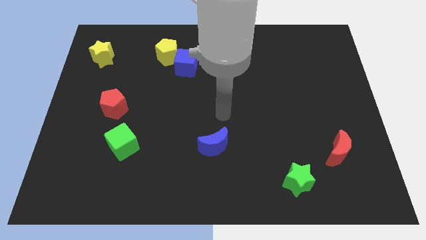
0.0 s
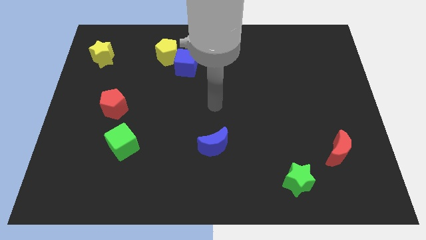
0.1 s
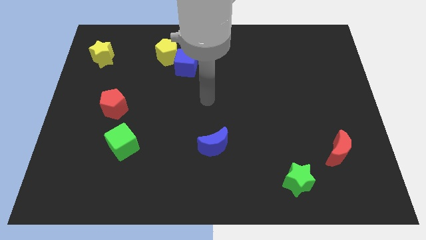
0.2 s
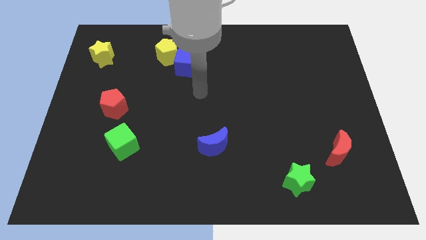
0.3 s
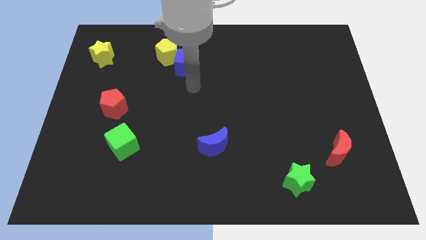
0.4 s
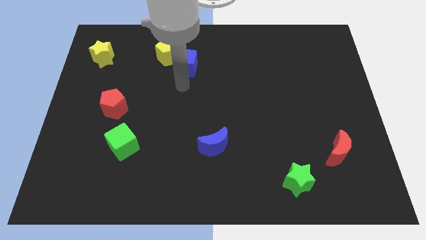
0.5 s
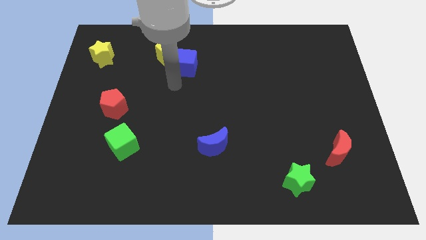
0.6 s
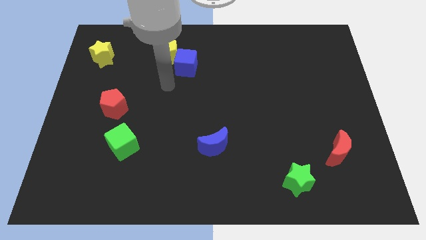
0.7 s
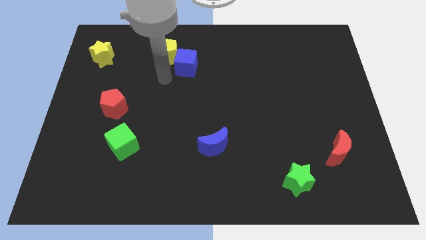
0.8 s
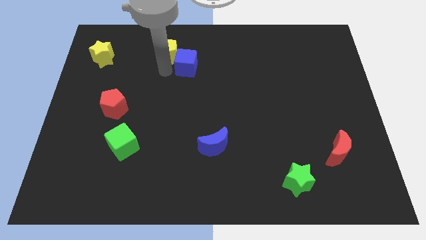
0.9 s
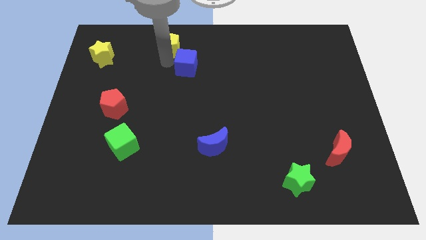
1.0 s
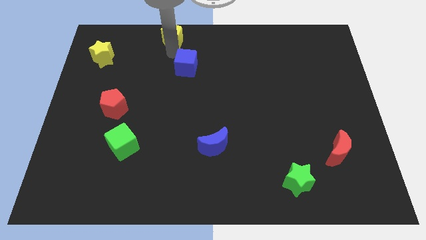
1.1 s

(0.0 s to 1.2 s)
pull the blue cube apart from the yellow pentagon

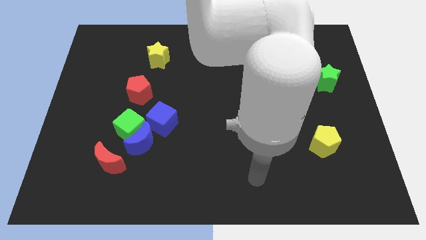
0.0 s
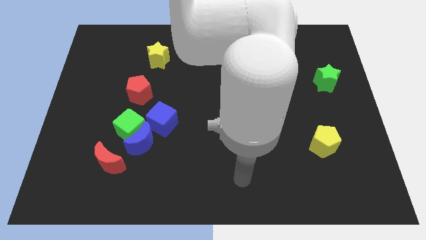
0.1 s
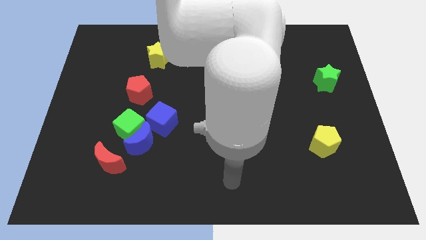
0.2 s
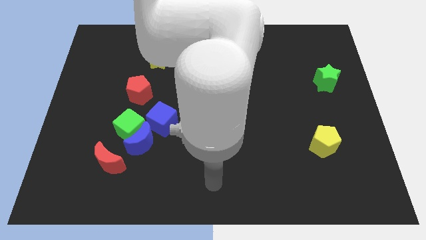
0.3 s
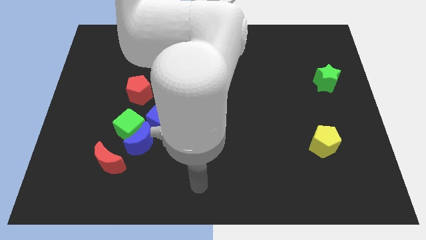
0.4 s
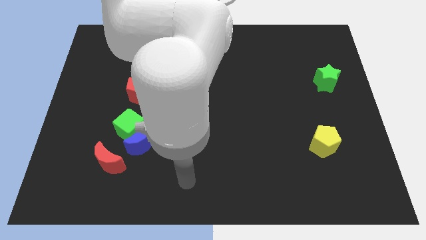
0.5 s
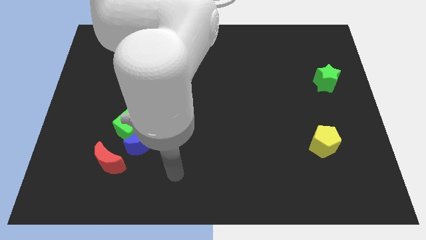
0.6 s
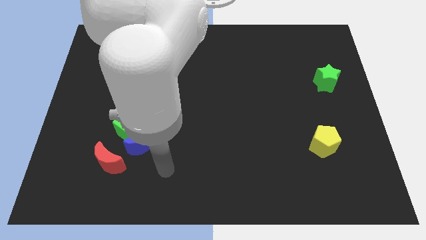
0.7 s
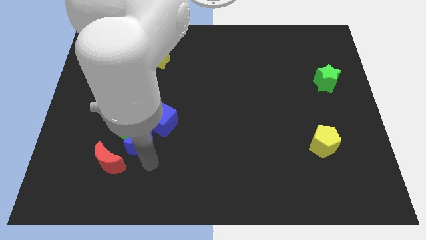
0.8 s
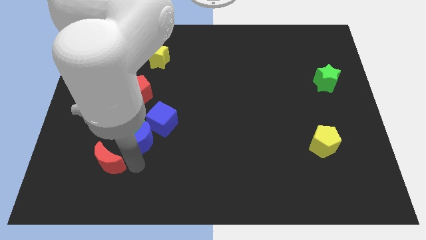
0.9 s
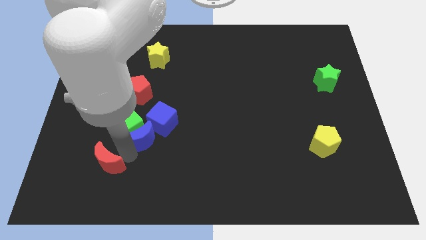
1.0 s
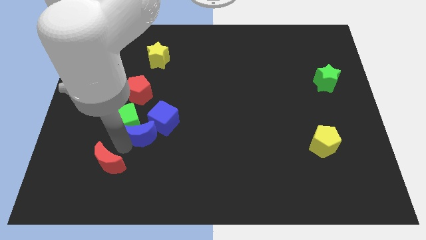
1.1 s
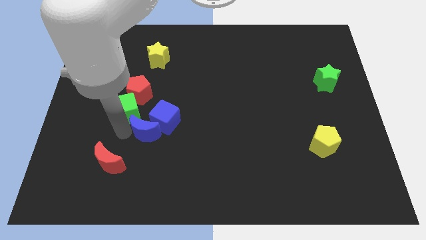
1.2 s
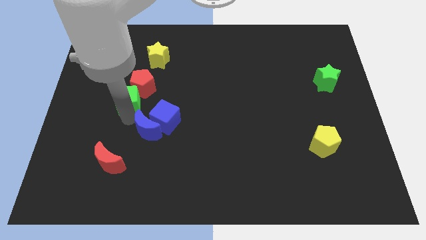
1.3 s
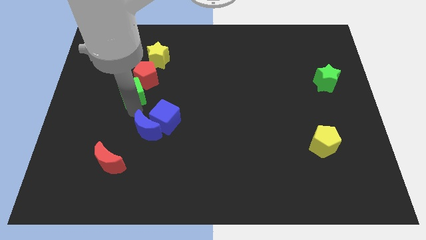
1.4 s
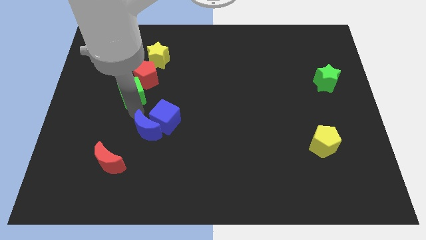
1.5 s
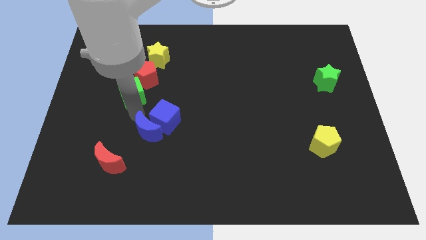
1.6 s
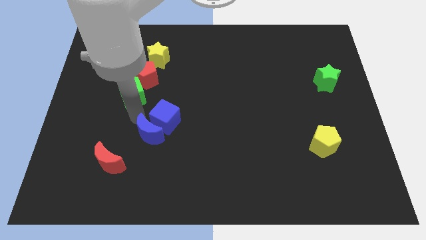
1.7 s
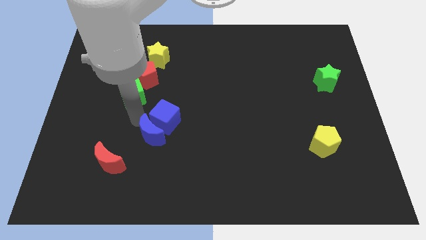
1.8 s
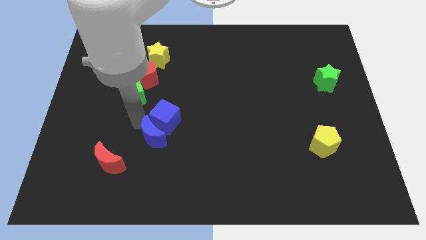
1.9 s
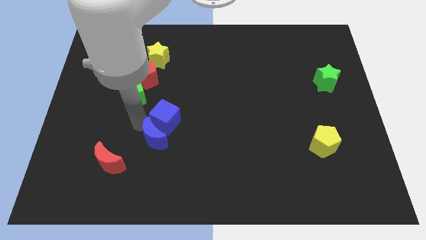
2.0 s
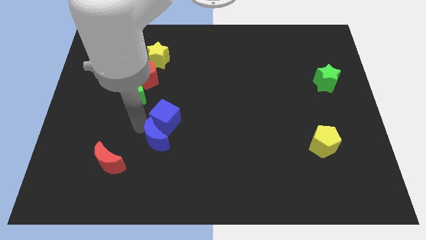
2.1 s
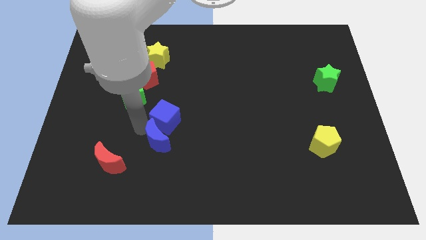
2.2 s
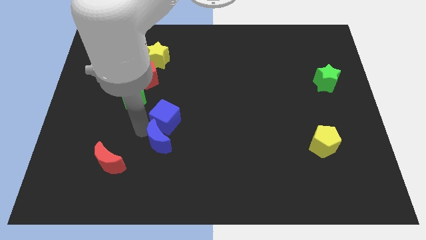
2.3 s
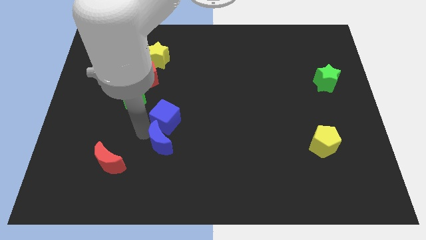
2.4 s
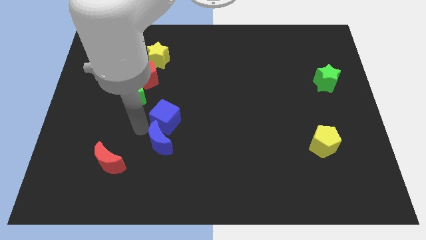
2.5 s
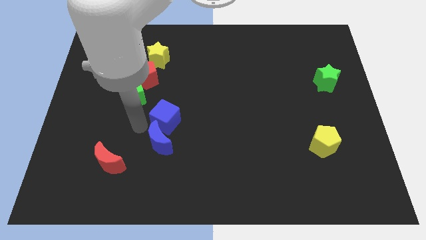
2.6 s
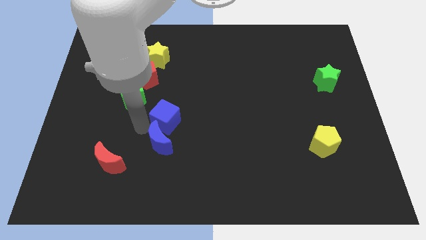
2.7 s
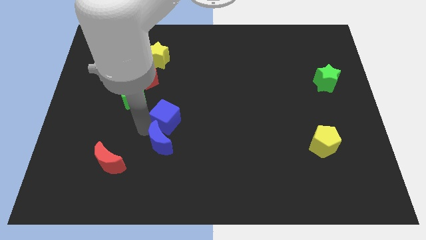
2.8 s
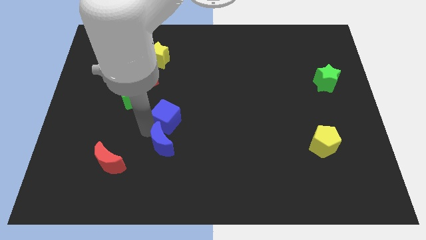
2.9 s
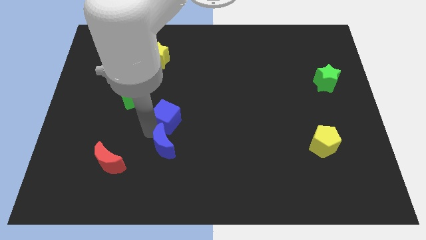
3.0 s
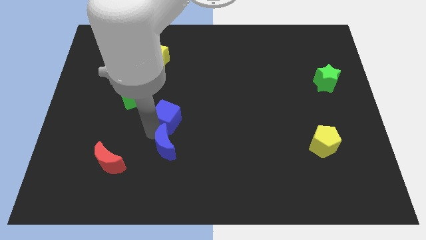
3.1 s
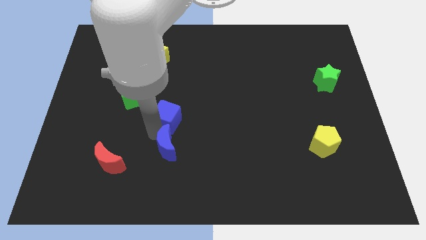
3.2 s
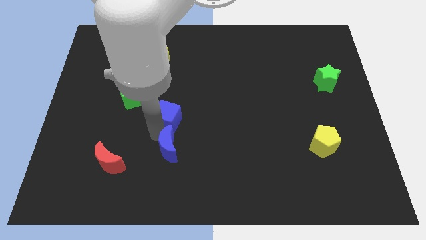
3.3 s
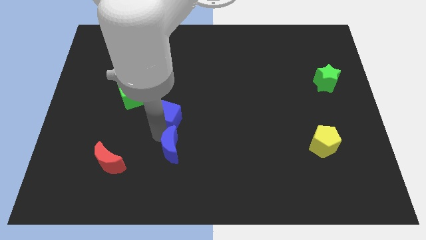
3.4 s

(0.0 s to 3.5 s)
separate the blue moon from the group of blocks

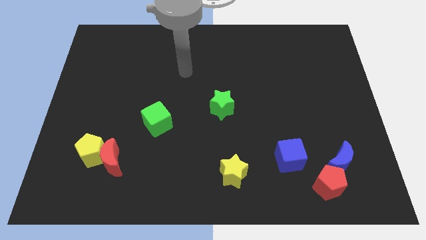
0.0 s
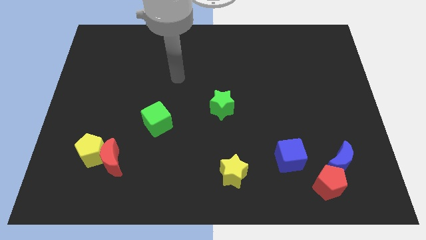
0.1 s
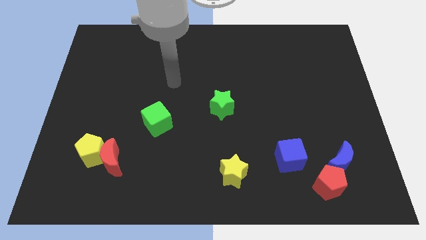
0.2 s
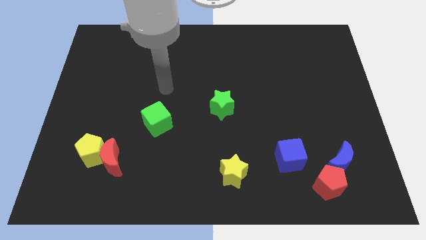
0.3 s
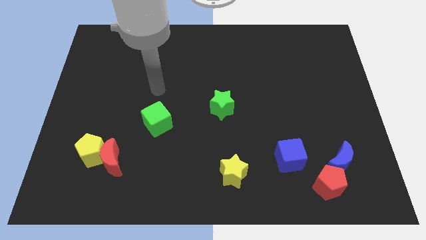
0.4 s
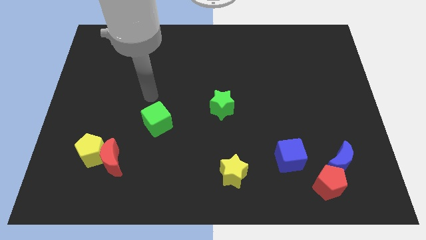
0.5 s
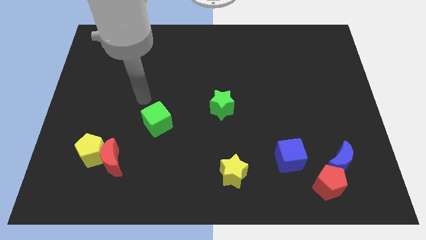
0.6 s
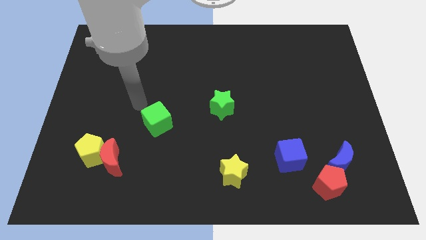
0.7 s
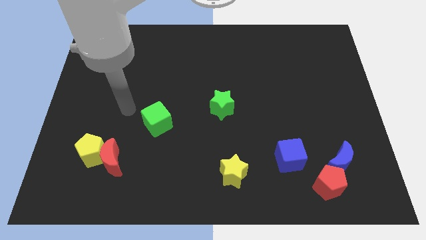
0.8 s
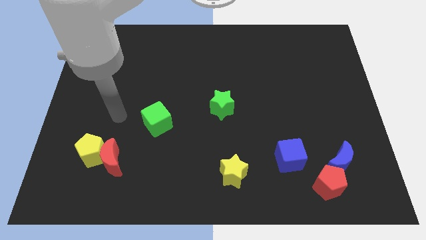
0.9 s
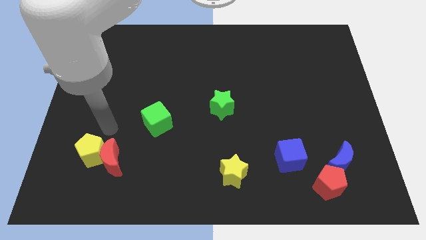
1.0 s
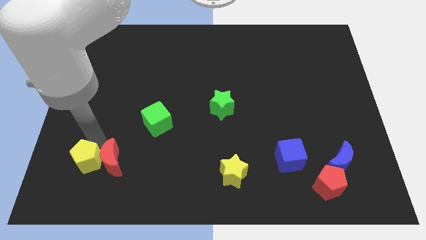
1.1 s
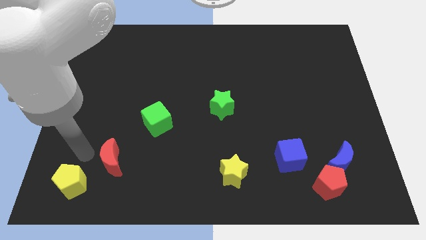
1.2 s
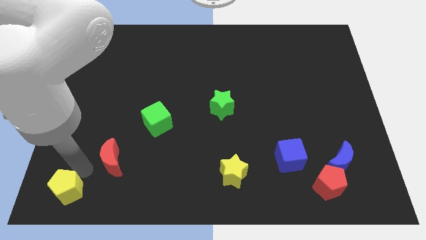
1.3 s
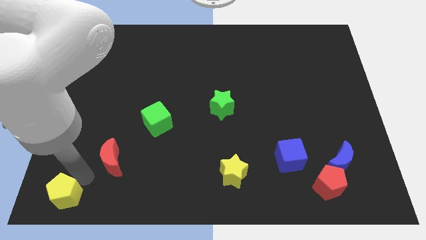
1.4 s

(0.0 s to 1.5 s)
separate the red moon from the yellow pentagon

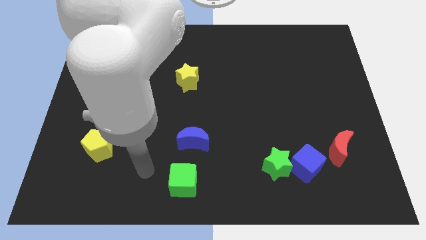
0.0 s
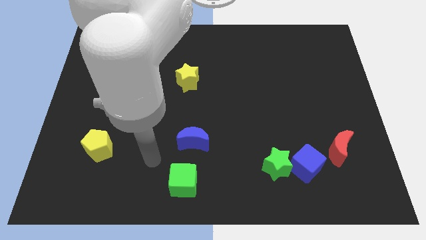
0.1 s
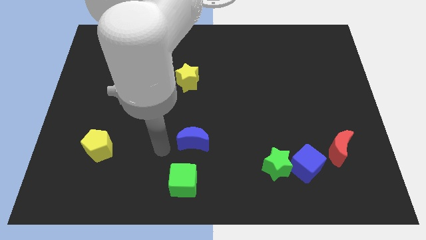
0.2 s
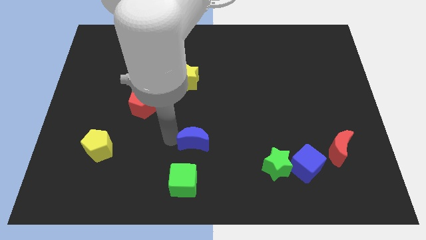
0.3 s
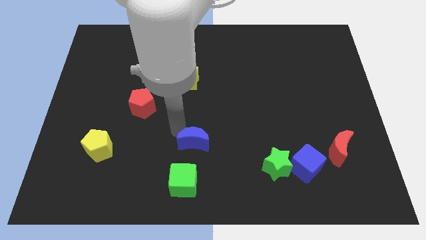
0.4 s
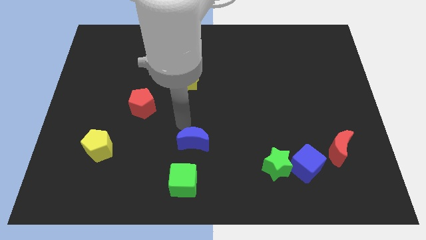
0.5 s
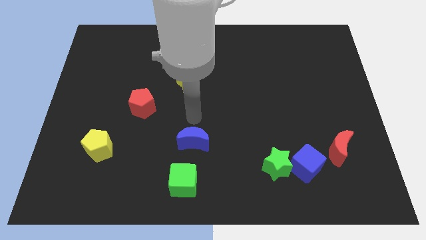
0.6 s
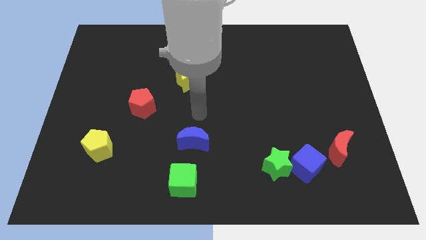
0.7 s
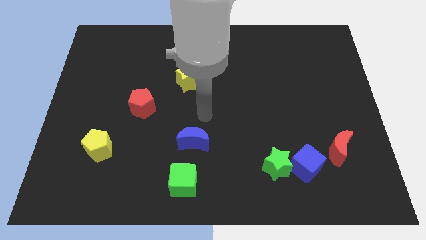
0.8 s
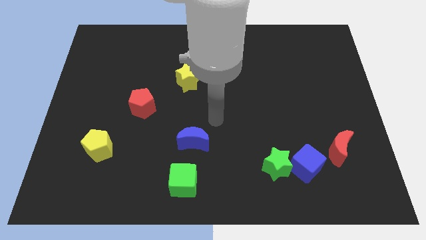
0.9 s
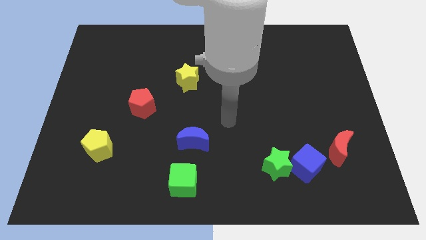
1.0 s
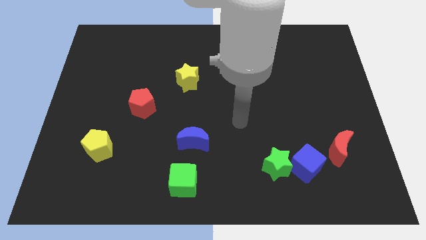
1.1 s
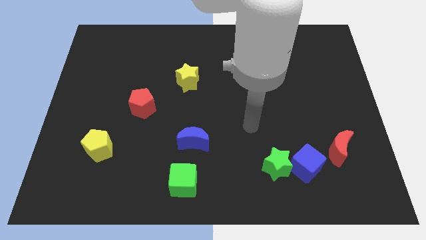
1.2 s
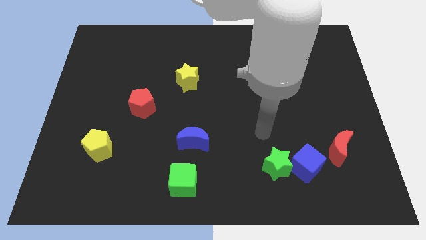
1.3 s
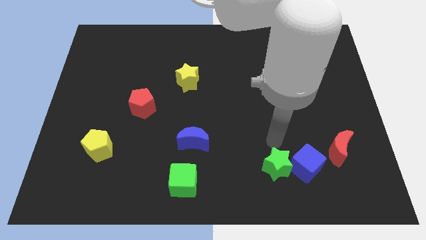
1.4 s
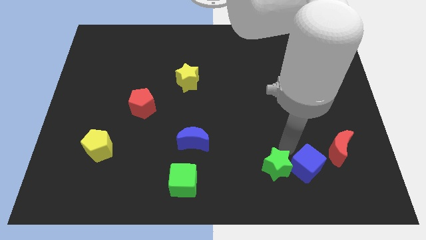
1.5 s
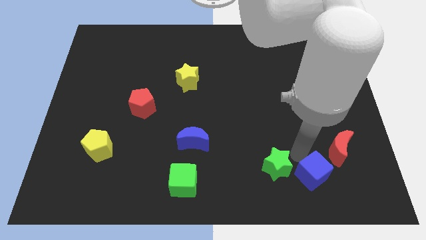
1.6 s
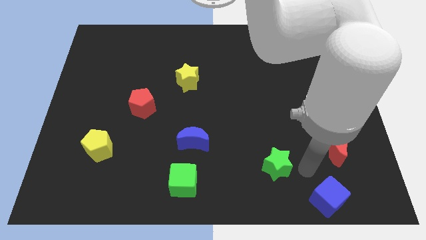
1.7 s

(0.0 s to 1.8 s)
pull the green star apart from the blue cube

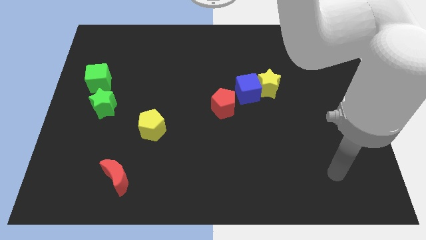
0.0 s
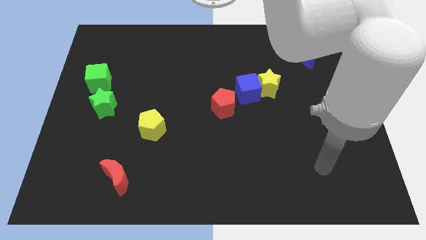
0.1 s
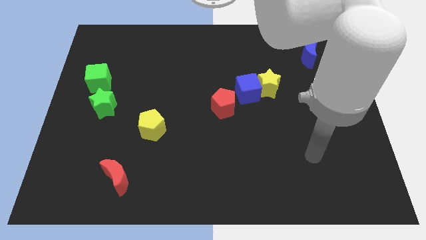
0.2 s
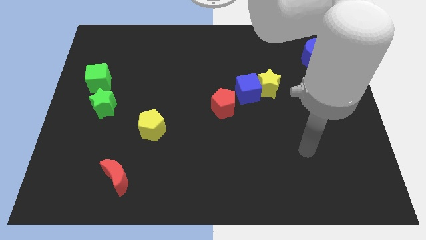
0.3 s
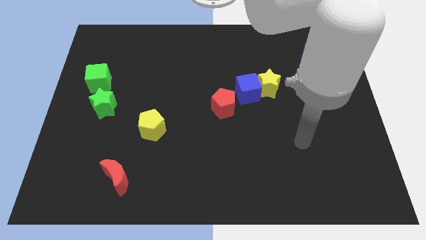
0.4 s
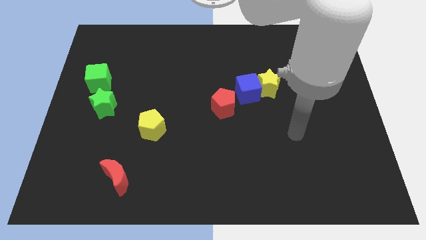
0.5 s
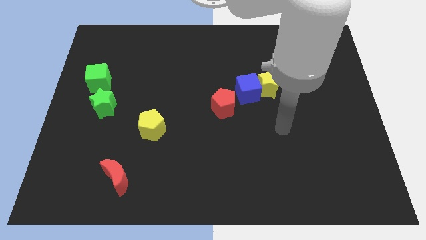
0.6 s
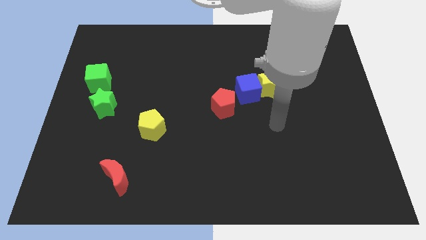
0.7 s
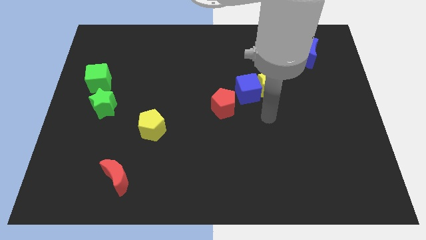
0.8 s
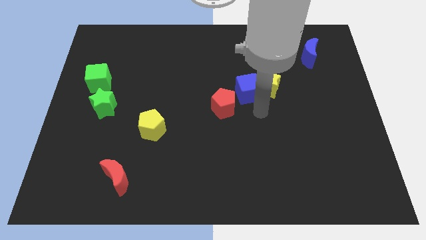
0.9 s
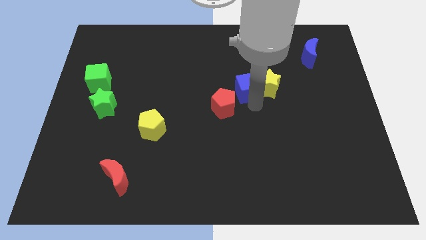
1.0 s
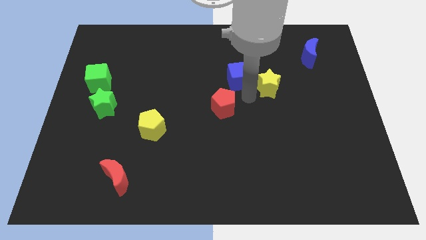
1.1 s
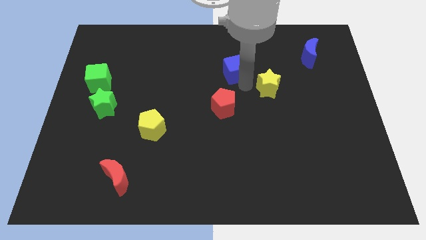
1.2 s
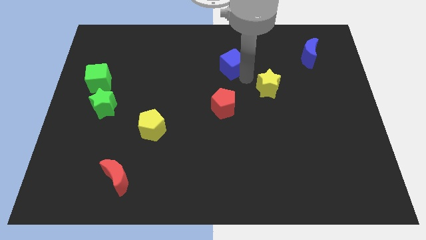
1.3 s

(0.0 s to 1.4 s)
move the yellow star away from the blue cube
